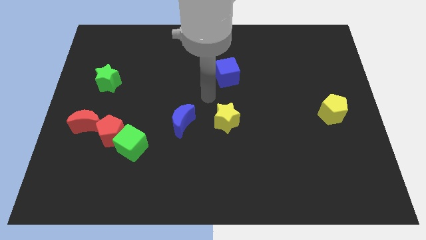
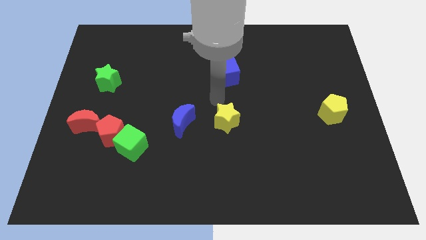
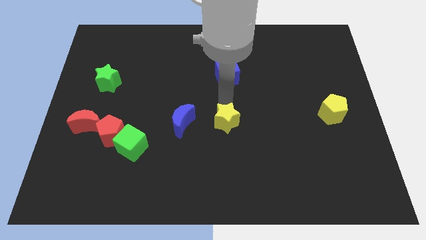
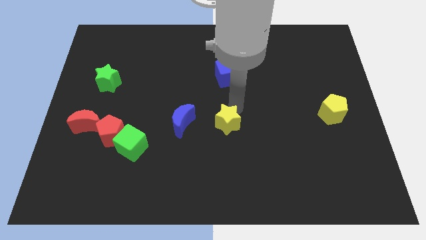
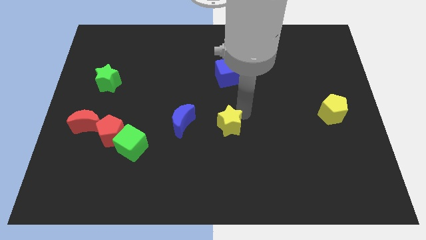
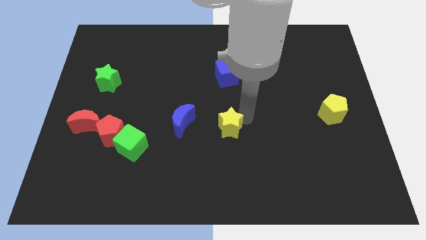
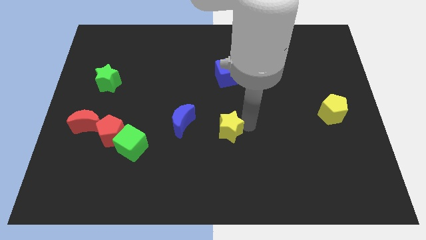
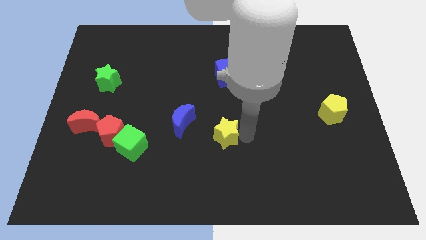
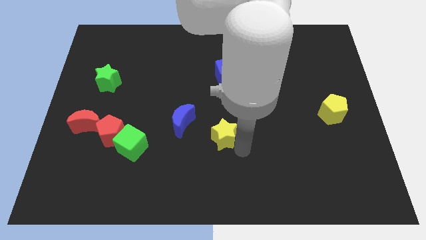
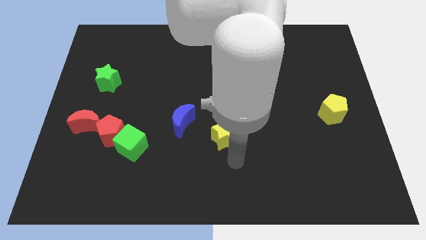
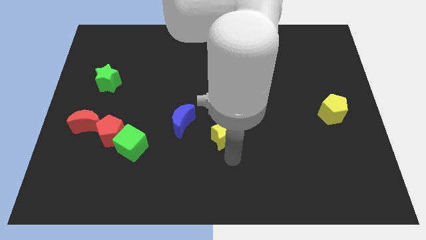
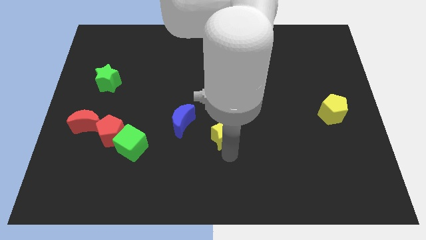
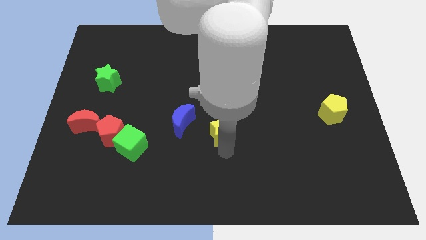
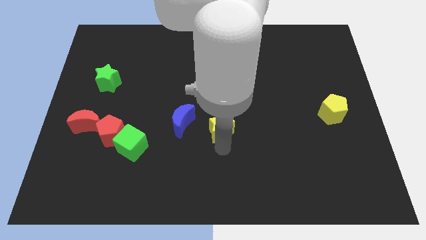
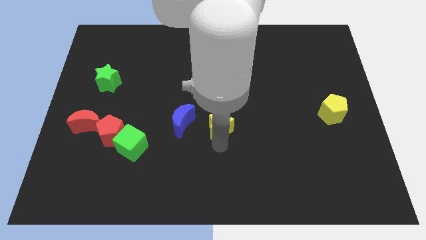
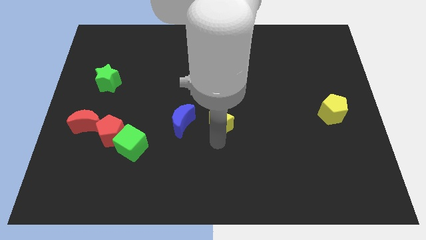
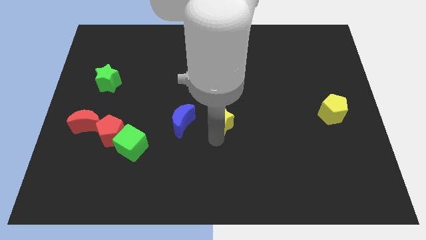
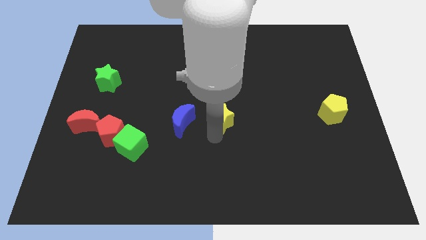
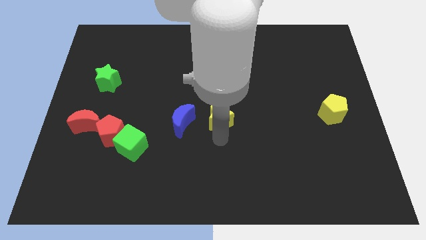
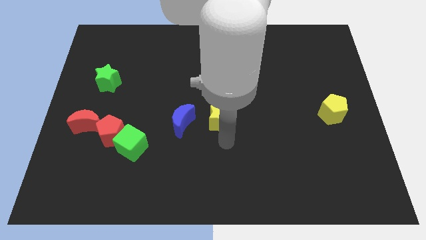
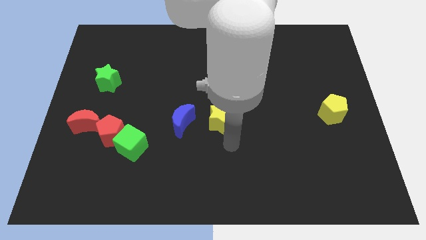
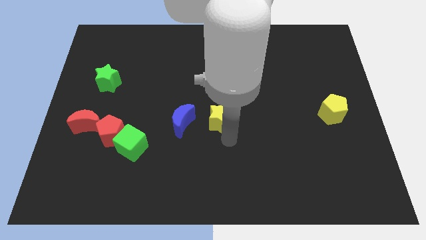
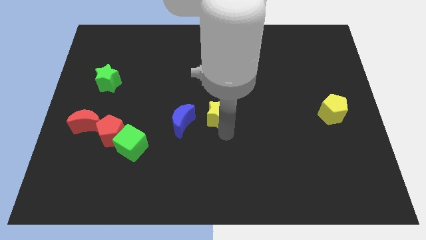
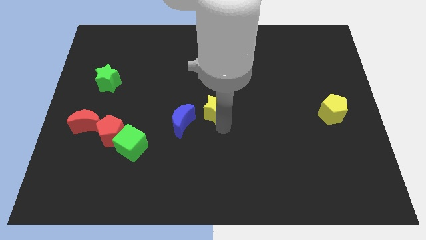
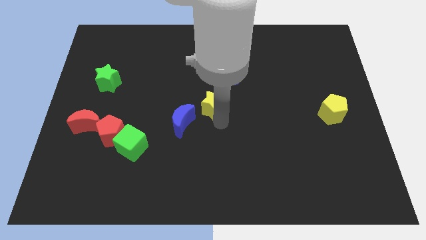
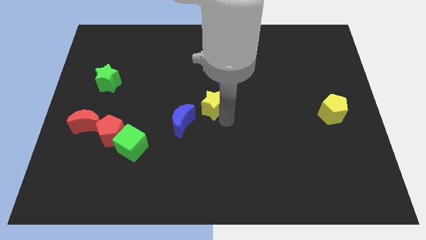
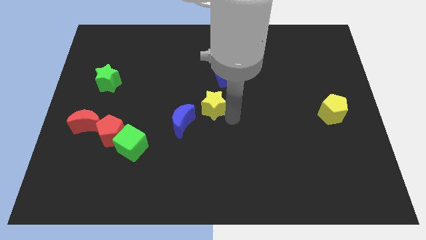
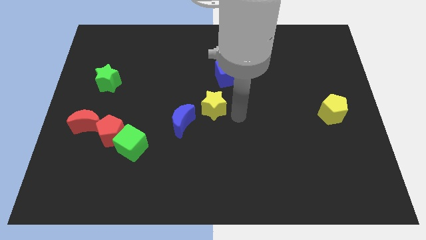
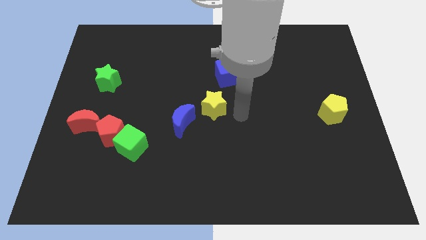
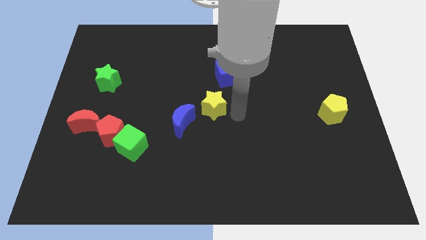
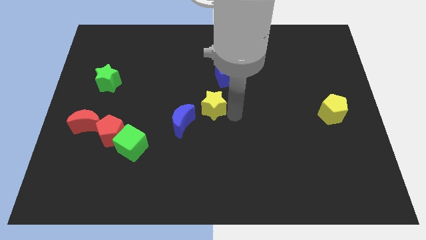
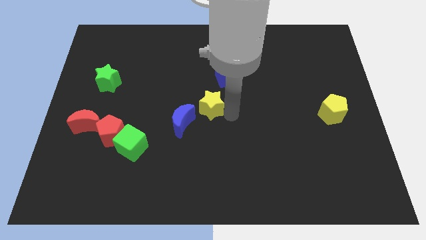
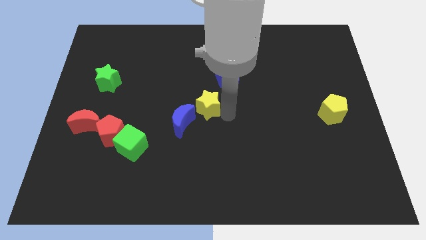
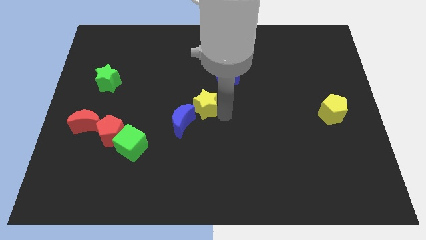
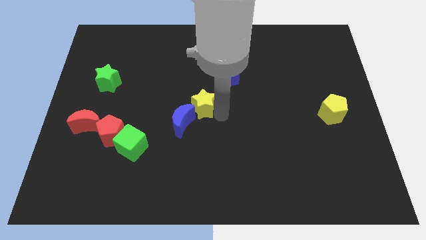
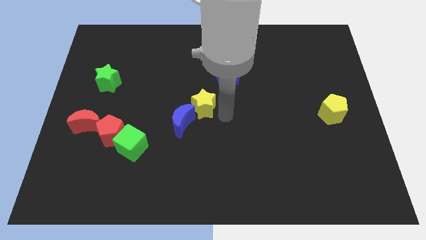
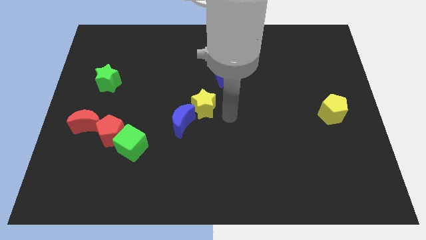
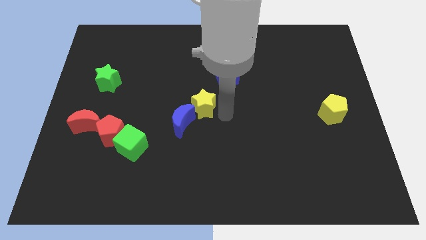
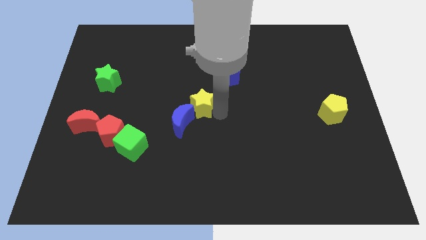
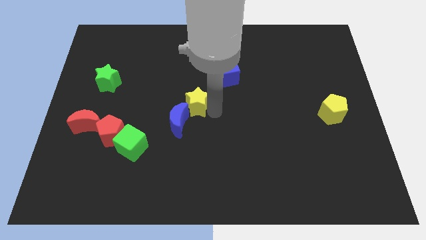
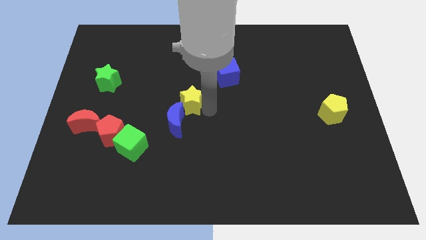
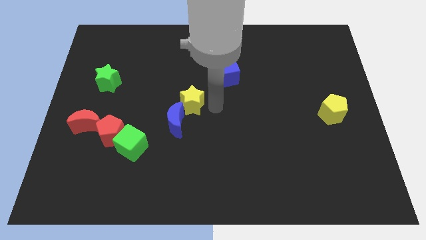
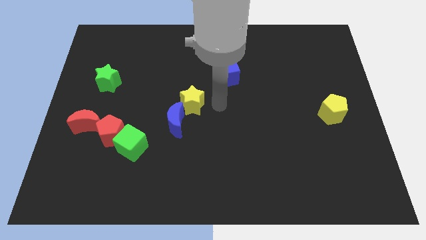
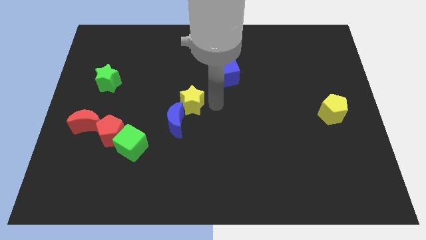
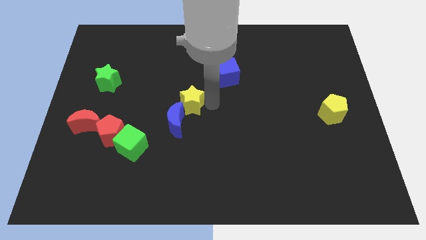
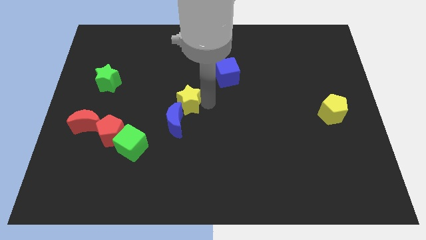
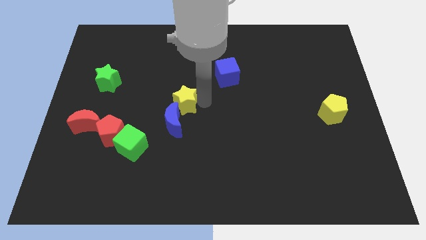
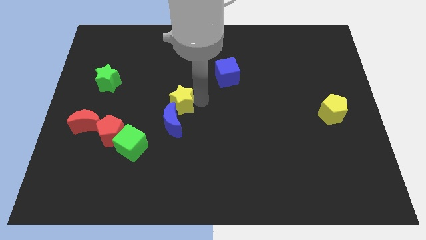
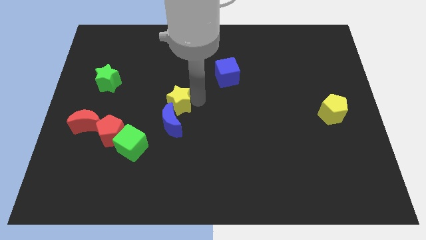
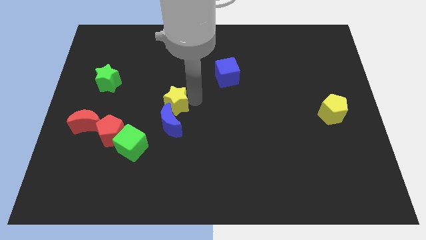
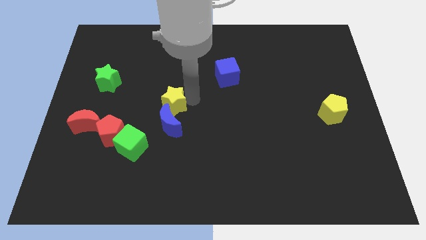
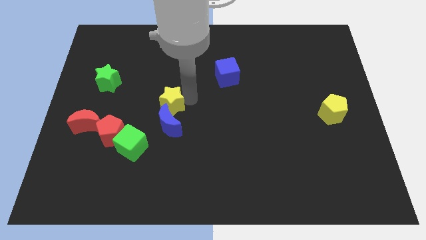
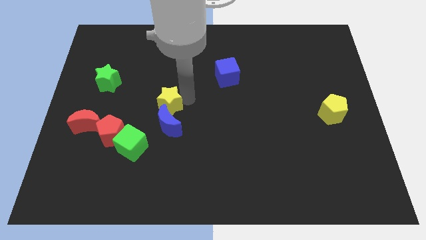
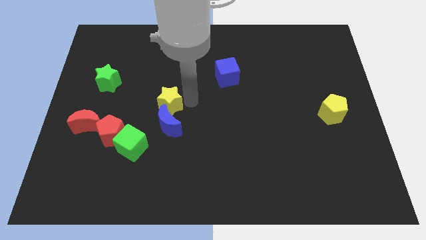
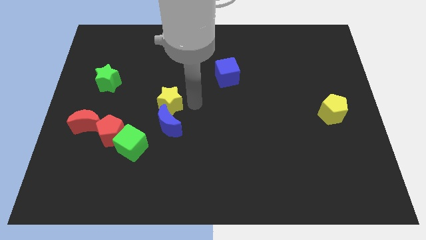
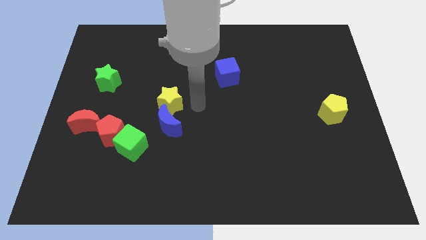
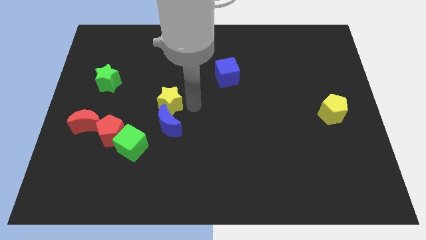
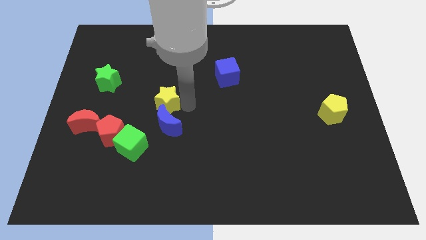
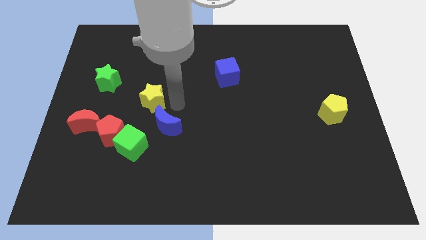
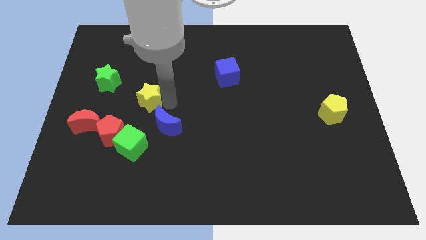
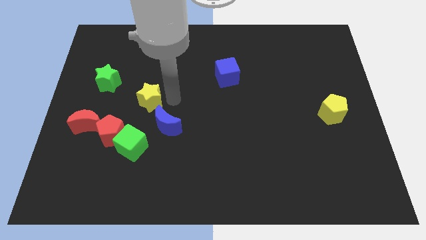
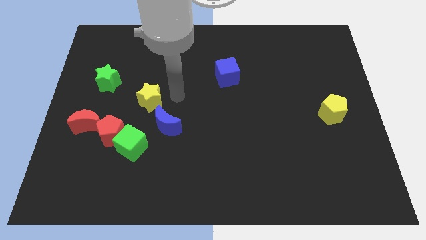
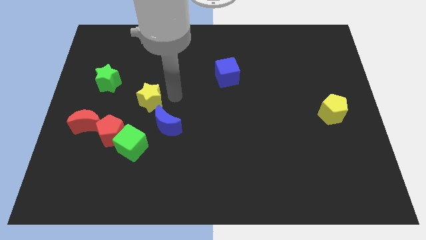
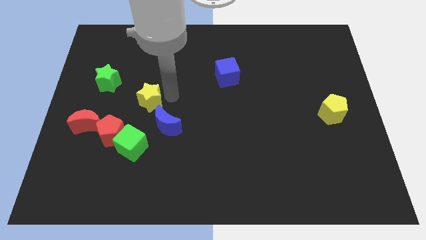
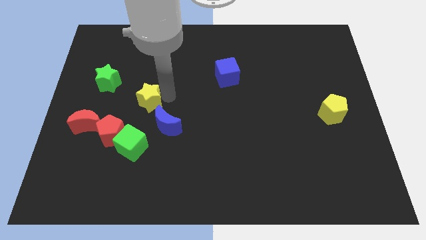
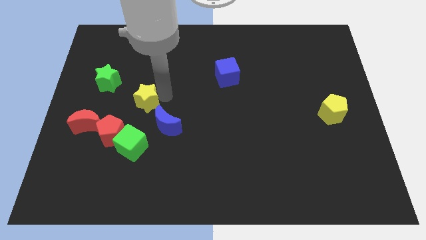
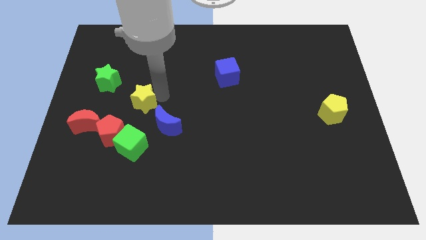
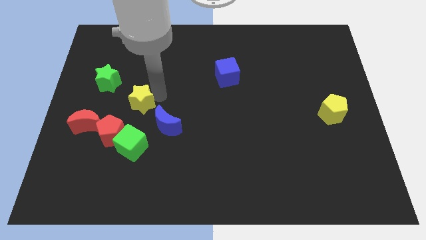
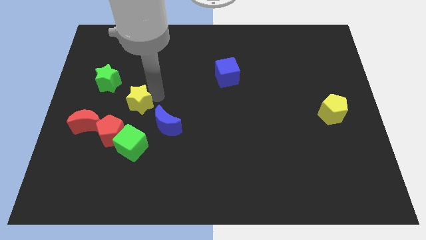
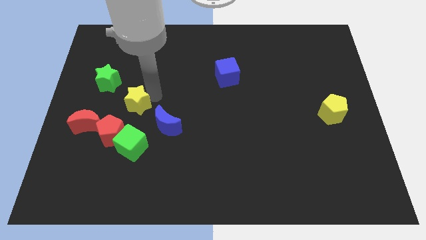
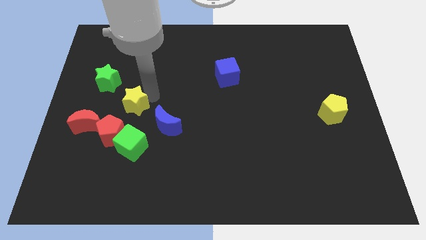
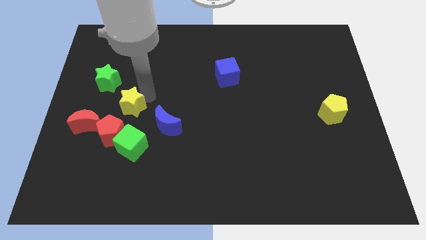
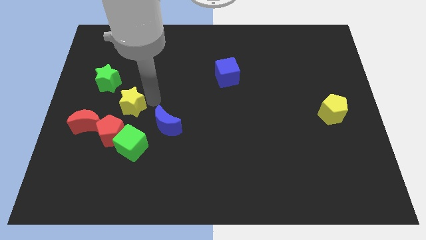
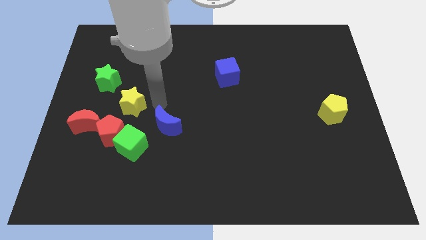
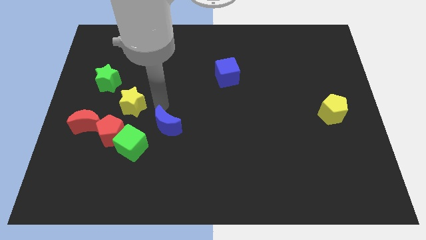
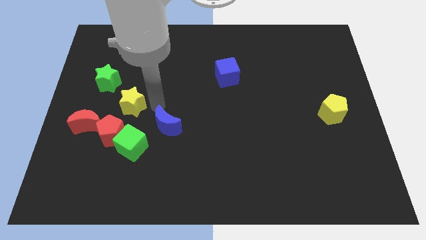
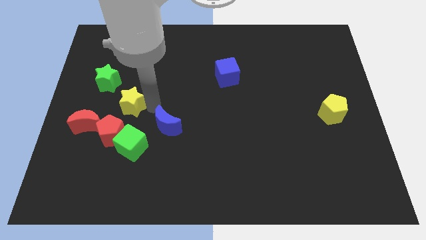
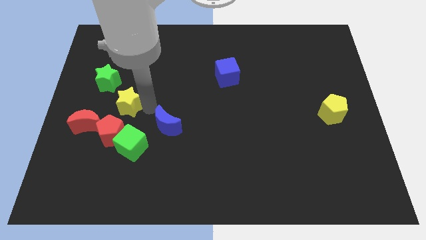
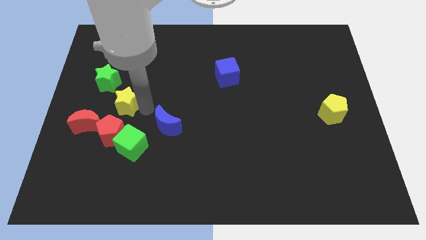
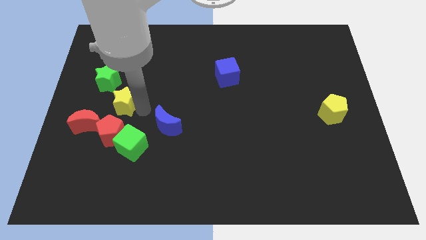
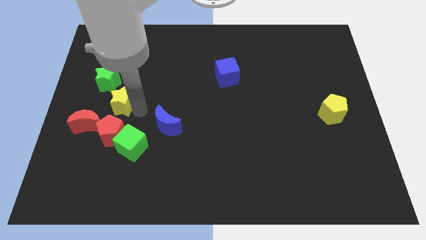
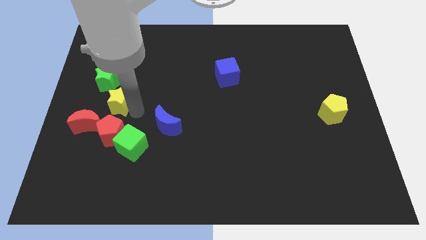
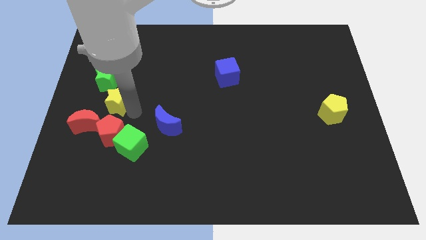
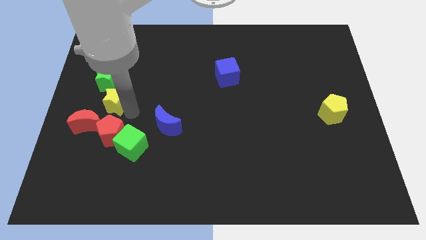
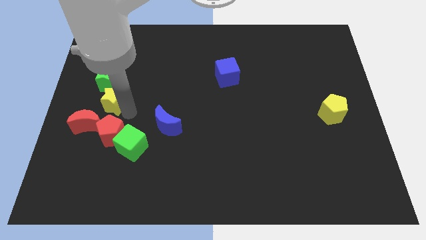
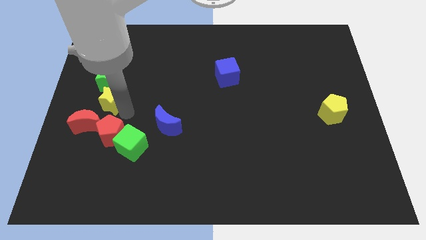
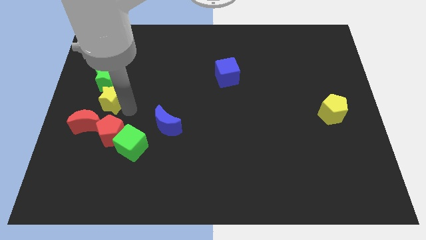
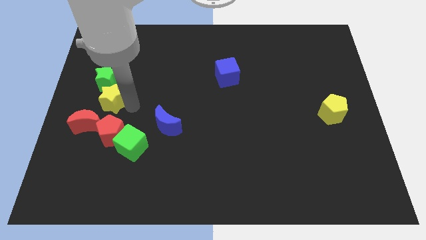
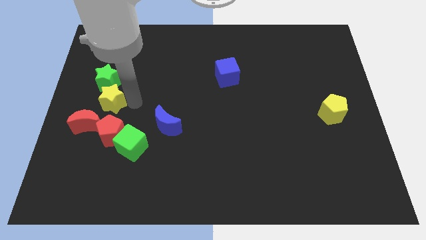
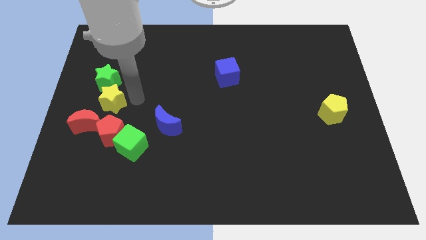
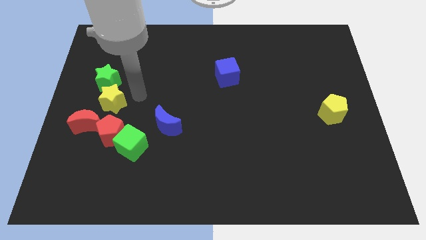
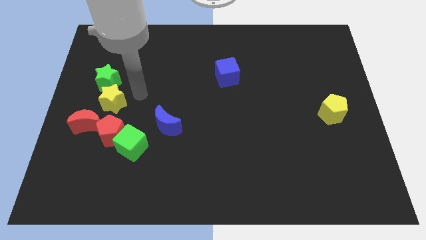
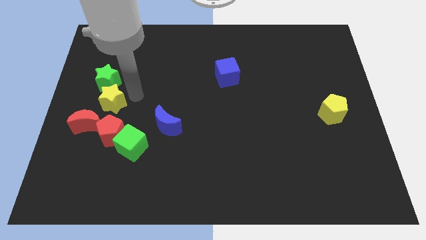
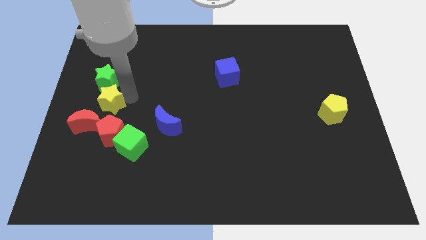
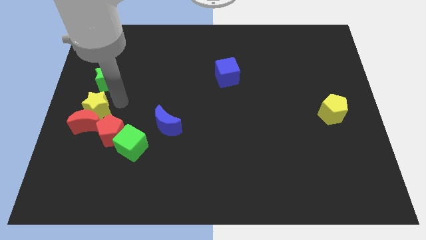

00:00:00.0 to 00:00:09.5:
slide the yellow star to the left side of the board
